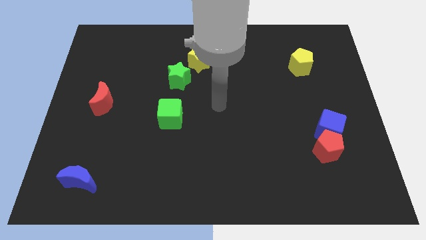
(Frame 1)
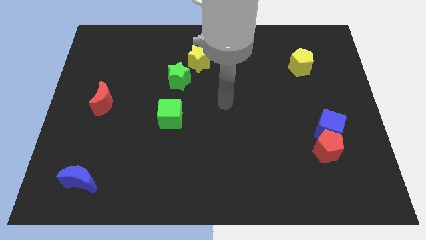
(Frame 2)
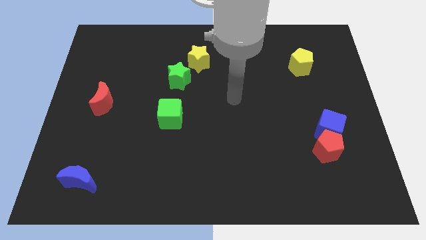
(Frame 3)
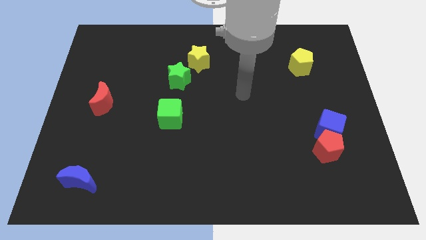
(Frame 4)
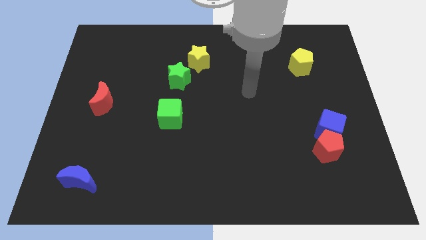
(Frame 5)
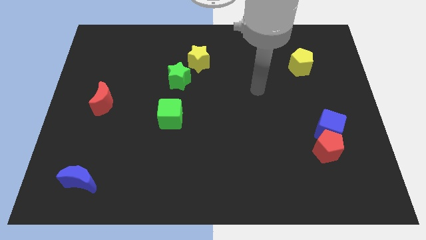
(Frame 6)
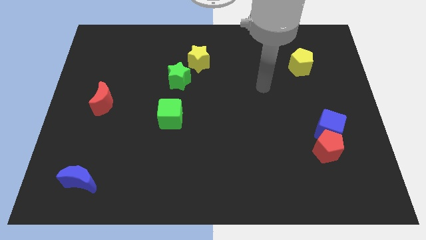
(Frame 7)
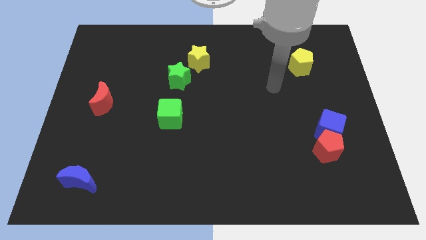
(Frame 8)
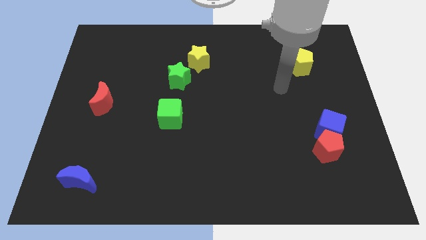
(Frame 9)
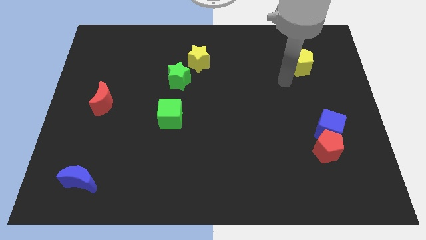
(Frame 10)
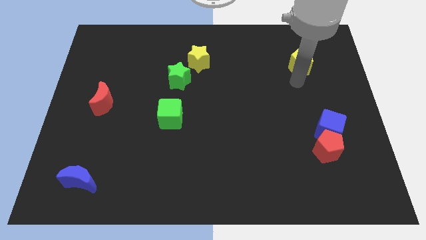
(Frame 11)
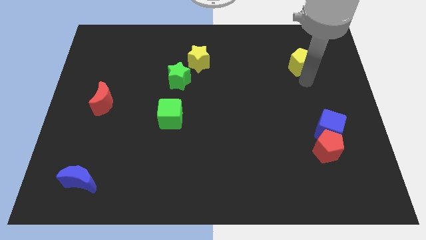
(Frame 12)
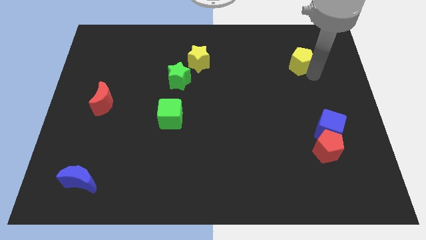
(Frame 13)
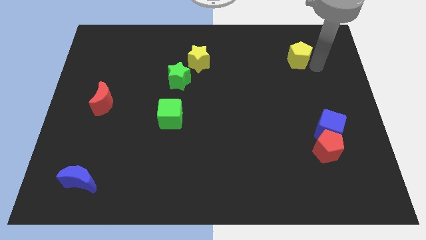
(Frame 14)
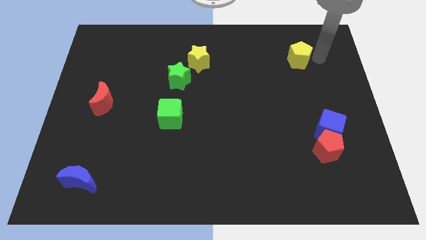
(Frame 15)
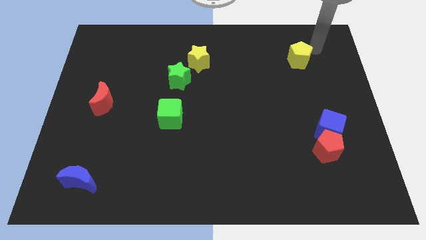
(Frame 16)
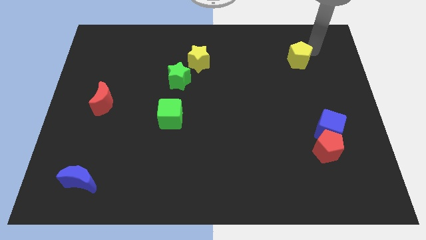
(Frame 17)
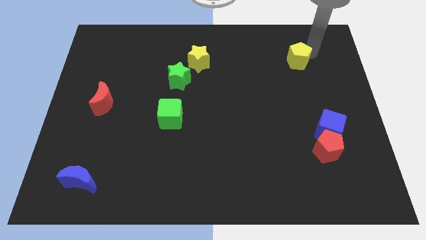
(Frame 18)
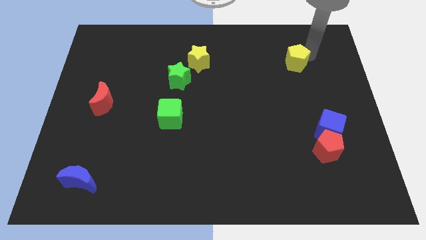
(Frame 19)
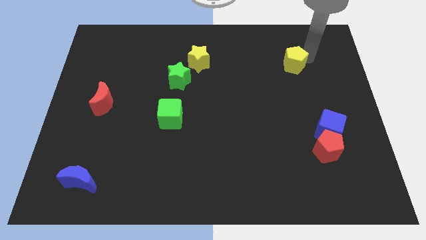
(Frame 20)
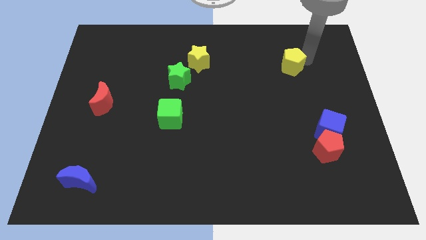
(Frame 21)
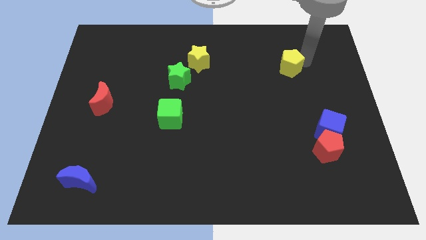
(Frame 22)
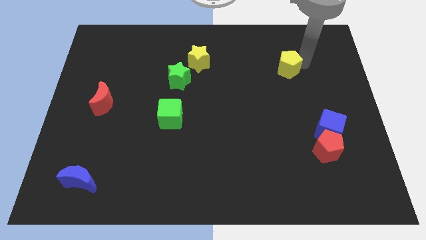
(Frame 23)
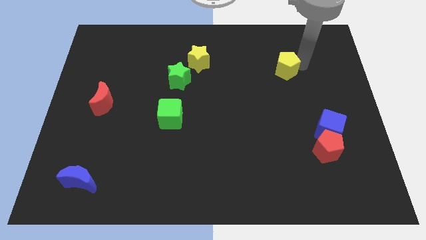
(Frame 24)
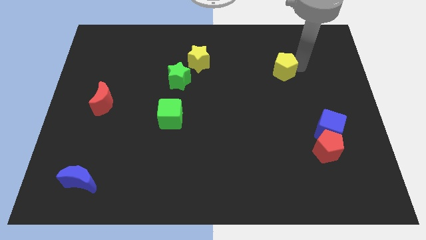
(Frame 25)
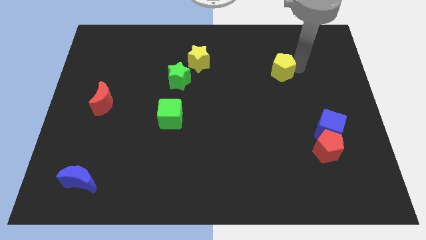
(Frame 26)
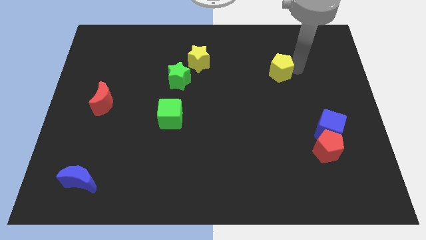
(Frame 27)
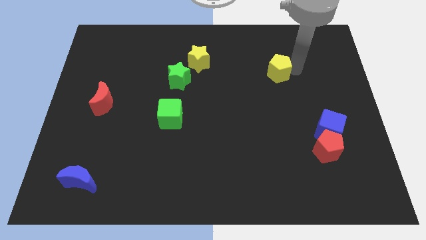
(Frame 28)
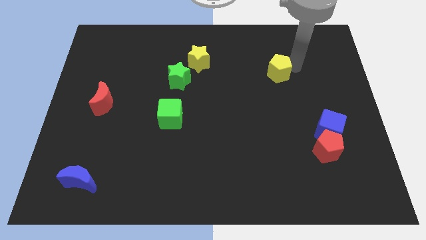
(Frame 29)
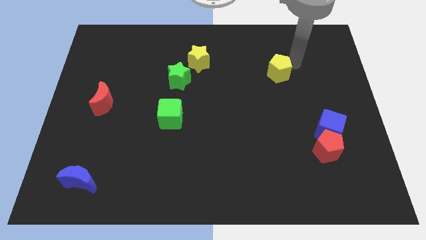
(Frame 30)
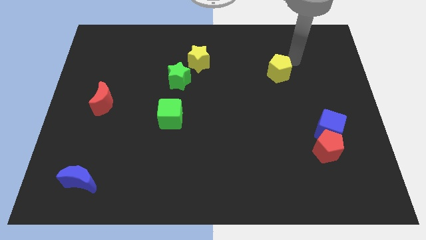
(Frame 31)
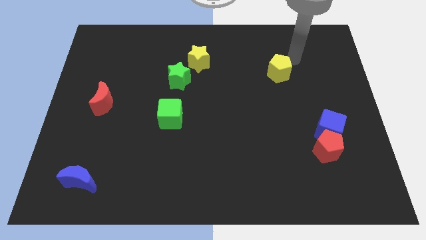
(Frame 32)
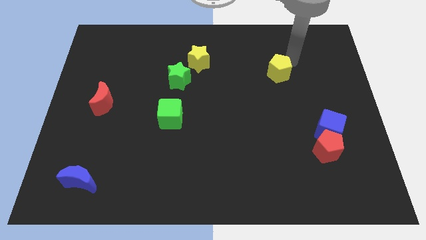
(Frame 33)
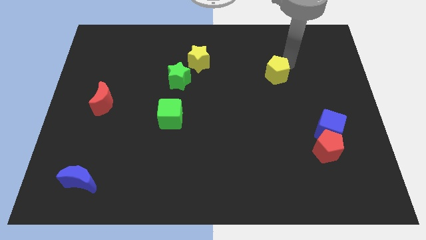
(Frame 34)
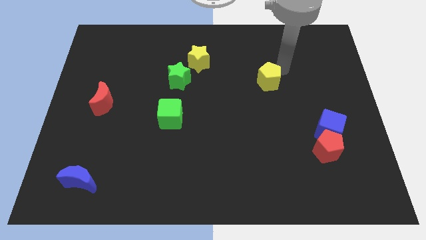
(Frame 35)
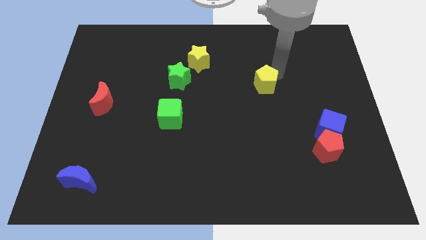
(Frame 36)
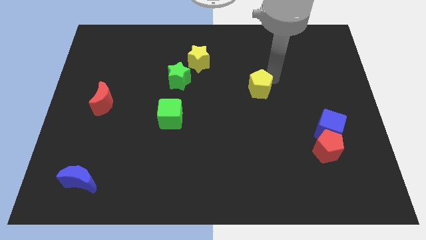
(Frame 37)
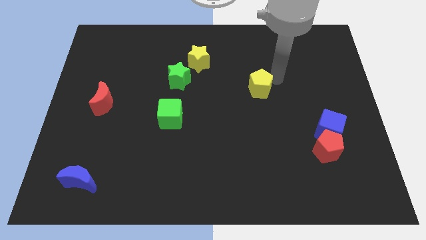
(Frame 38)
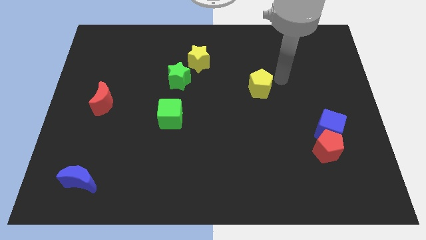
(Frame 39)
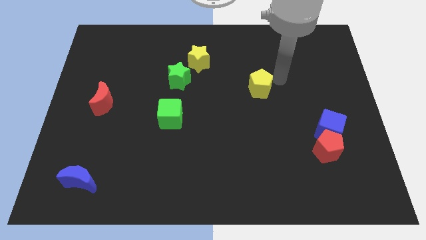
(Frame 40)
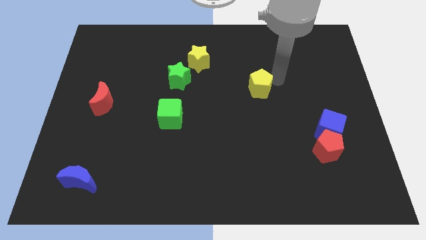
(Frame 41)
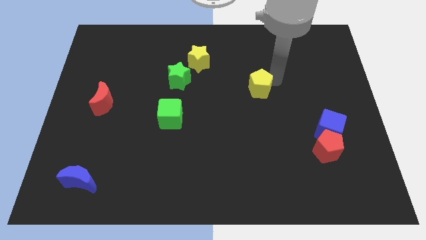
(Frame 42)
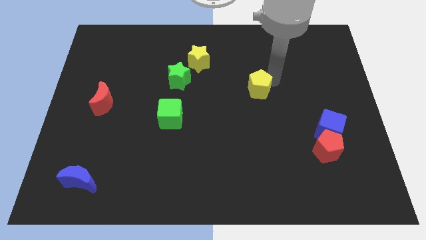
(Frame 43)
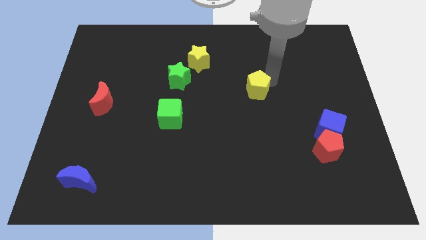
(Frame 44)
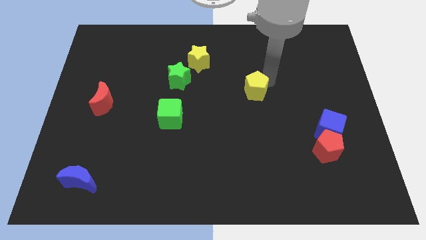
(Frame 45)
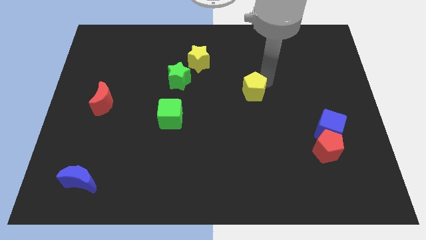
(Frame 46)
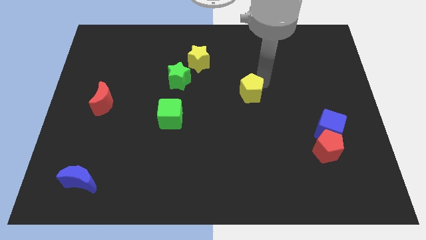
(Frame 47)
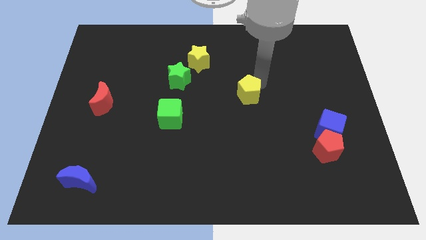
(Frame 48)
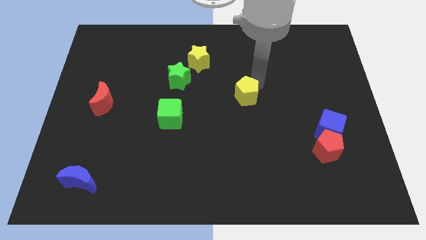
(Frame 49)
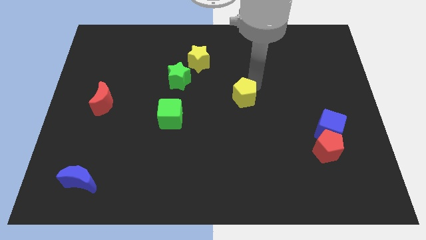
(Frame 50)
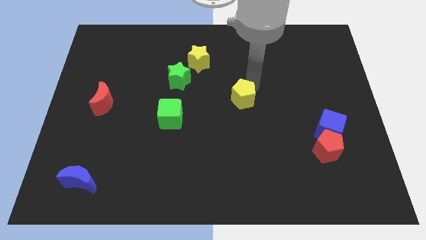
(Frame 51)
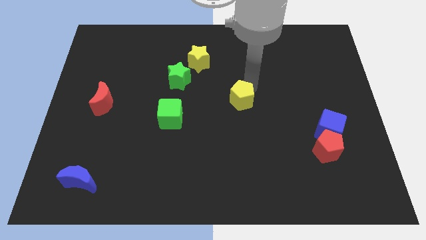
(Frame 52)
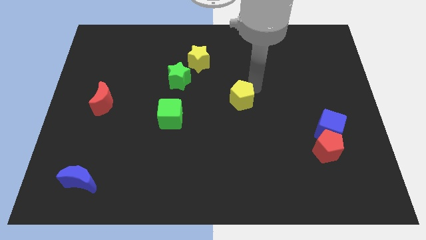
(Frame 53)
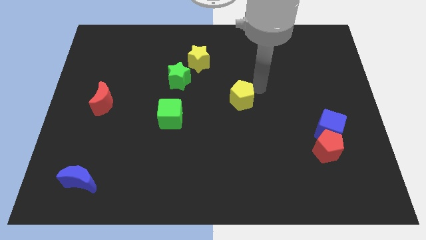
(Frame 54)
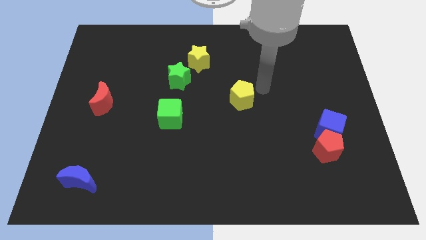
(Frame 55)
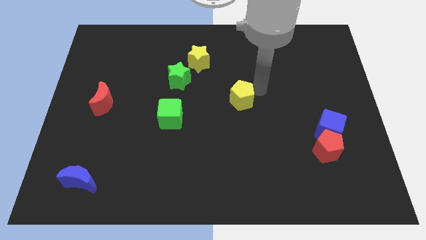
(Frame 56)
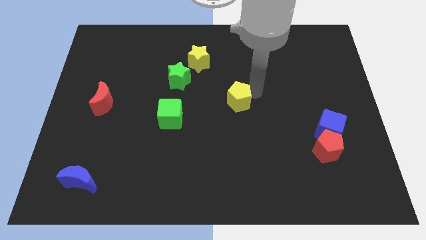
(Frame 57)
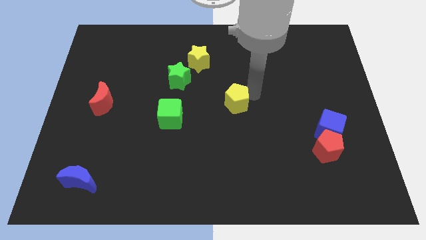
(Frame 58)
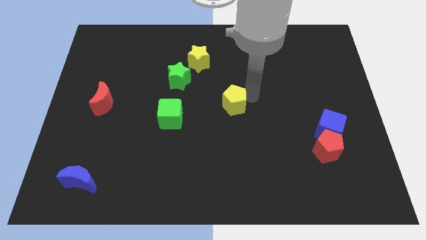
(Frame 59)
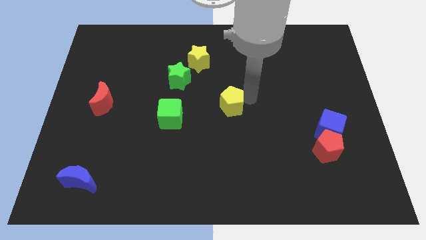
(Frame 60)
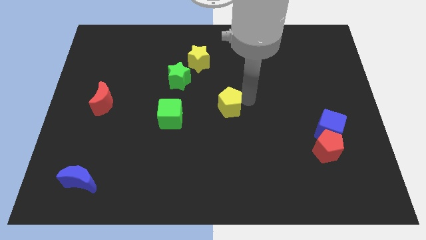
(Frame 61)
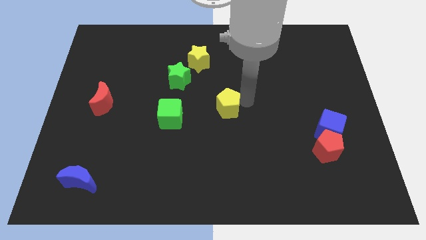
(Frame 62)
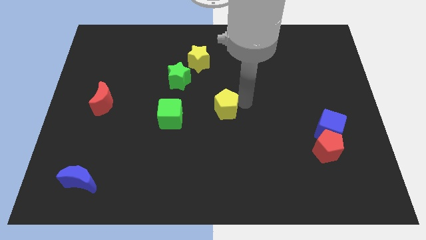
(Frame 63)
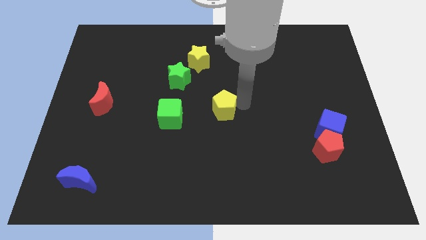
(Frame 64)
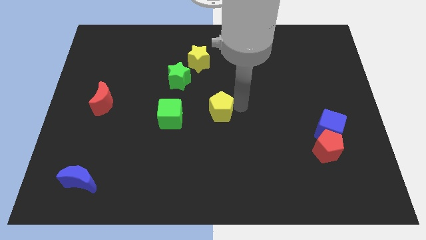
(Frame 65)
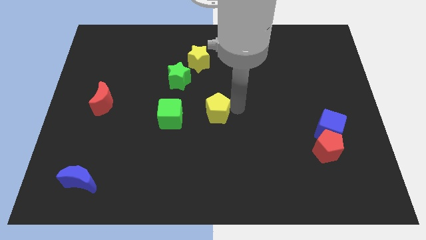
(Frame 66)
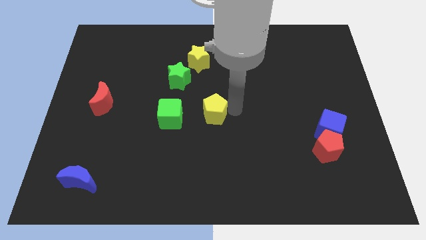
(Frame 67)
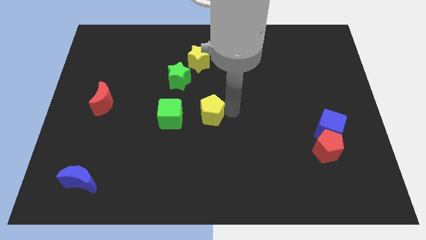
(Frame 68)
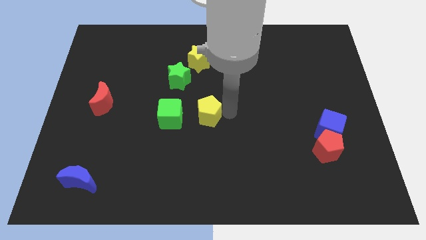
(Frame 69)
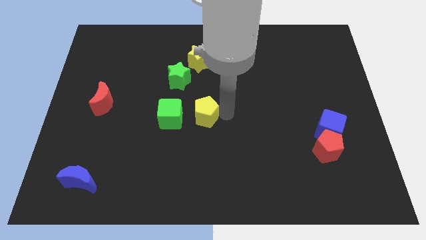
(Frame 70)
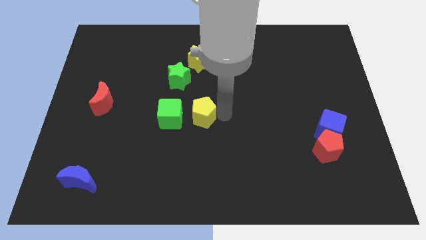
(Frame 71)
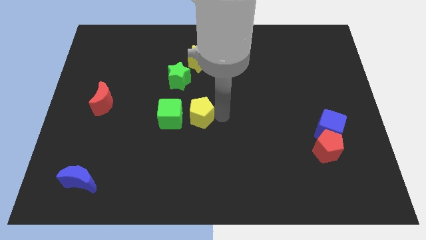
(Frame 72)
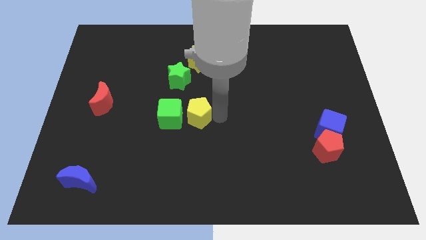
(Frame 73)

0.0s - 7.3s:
put the yellow pentagon to the green cube
